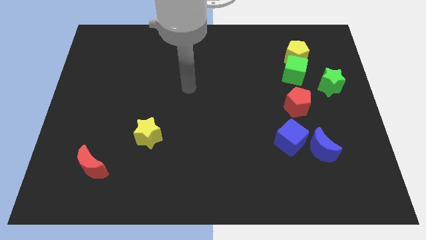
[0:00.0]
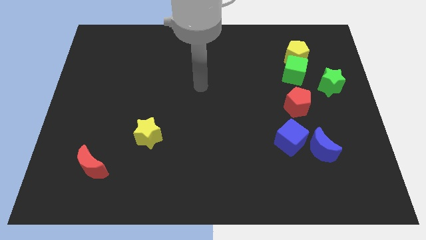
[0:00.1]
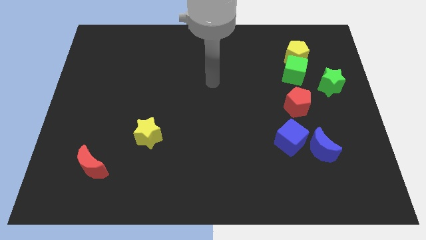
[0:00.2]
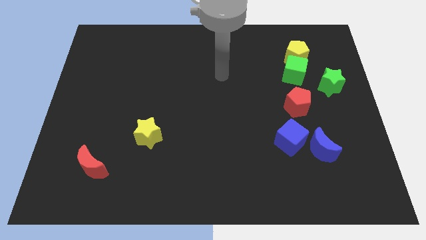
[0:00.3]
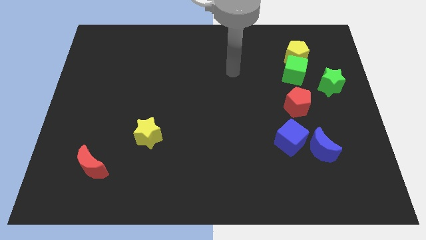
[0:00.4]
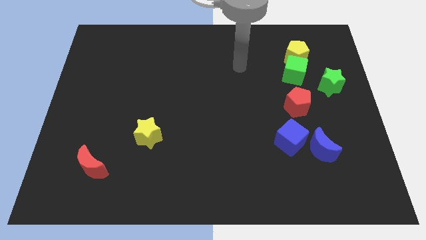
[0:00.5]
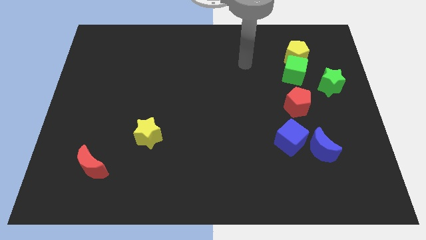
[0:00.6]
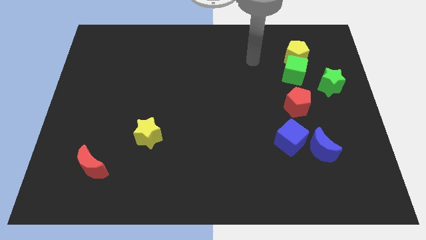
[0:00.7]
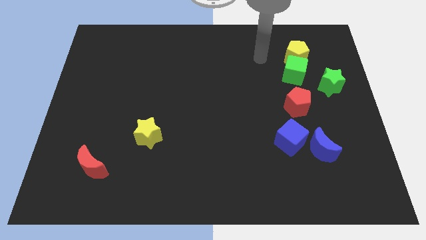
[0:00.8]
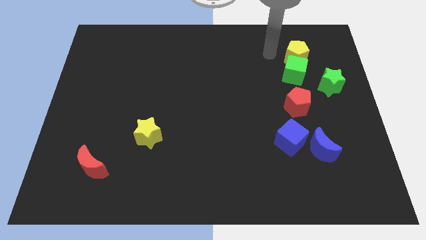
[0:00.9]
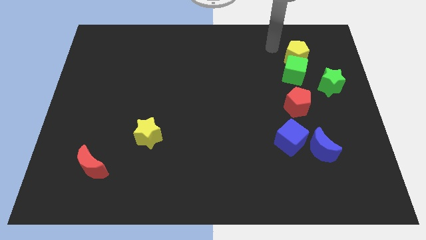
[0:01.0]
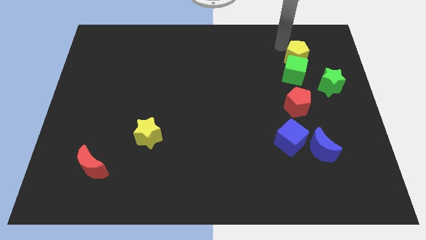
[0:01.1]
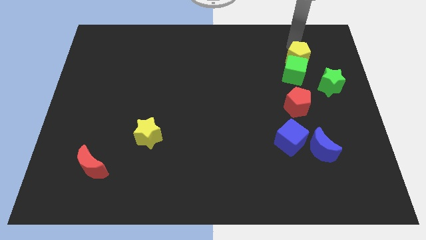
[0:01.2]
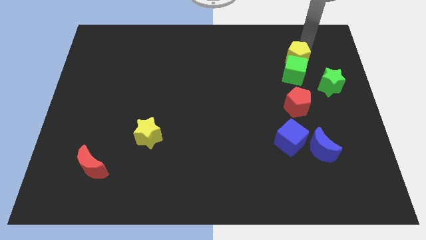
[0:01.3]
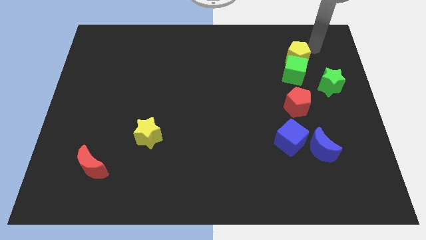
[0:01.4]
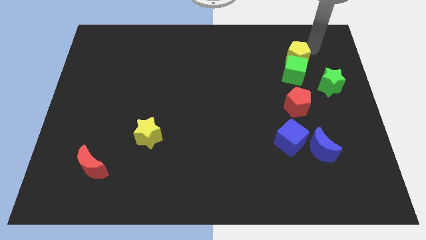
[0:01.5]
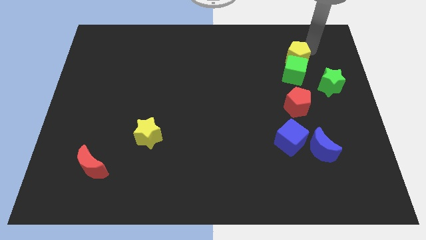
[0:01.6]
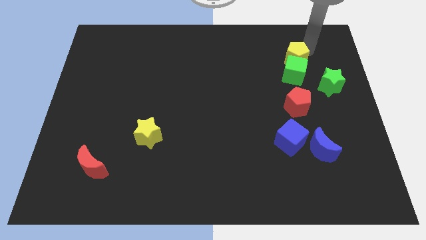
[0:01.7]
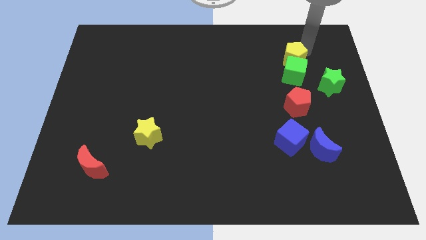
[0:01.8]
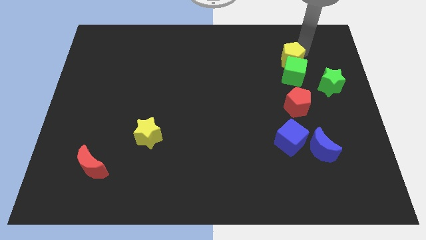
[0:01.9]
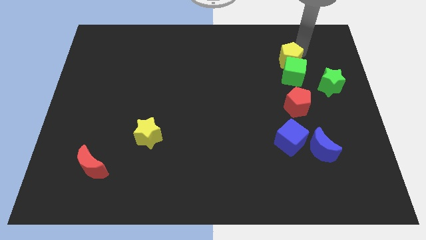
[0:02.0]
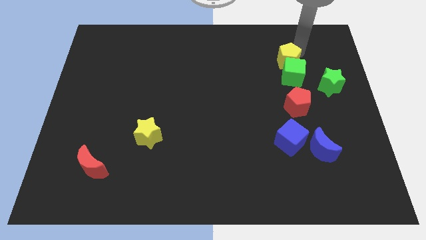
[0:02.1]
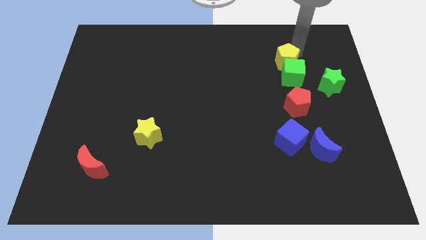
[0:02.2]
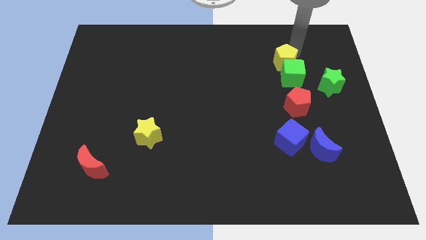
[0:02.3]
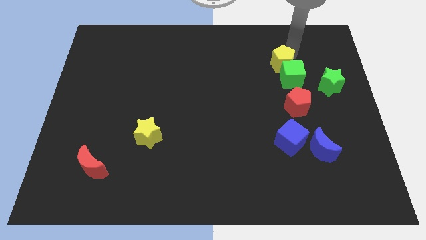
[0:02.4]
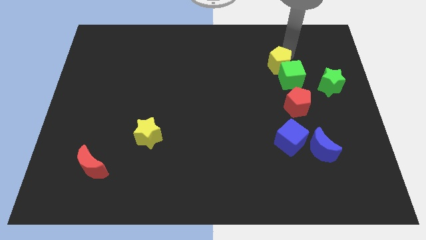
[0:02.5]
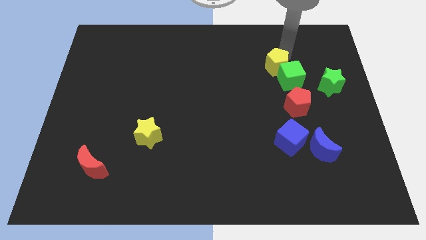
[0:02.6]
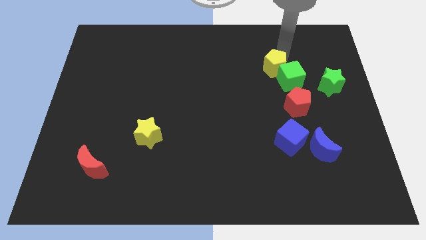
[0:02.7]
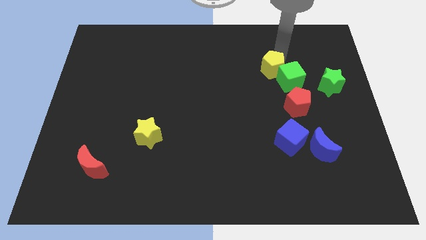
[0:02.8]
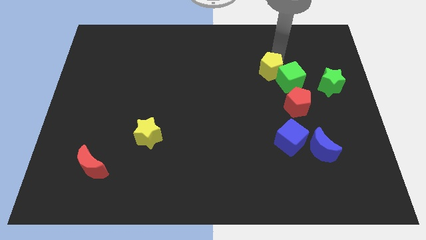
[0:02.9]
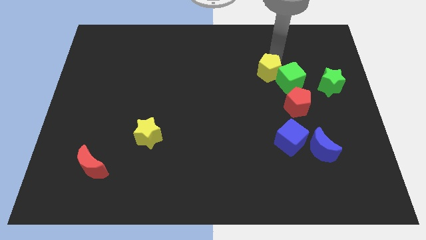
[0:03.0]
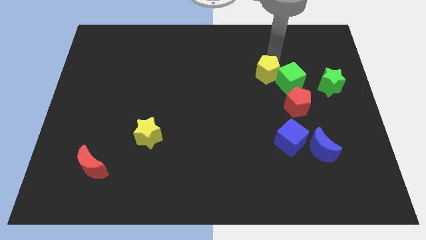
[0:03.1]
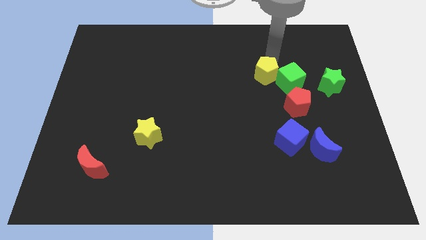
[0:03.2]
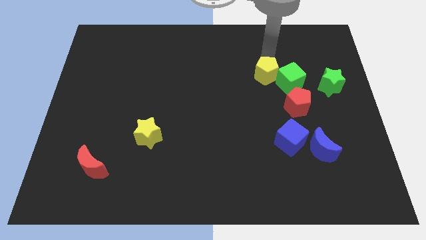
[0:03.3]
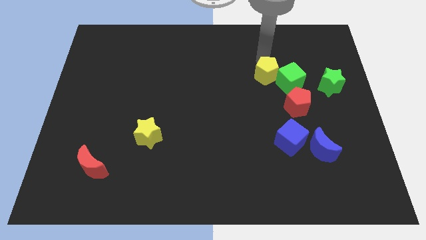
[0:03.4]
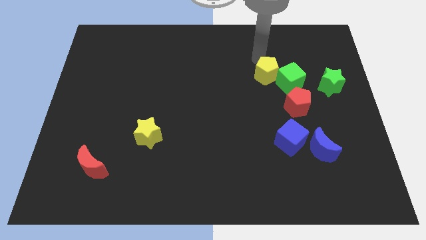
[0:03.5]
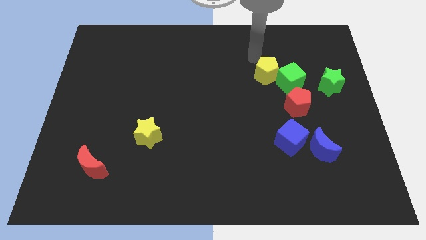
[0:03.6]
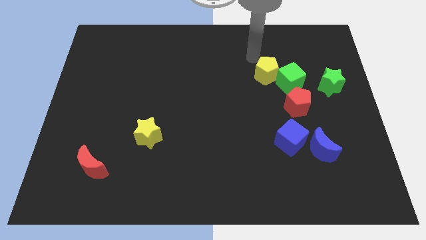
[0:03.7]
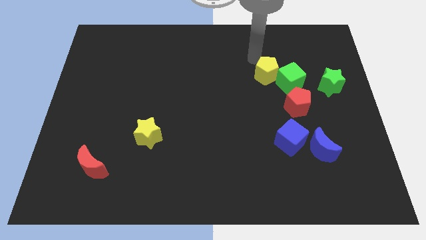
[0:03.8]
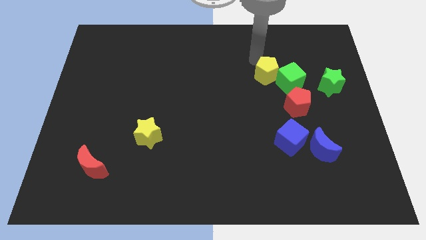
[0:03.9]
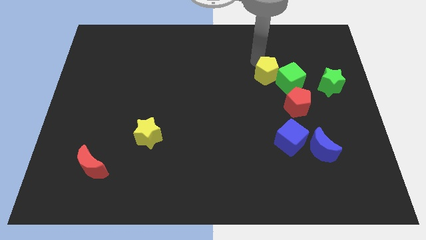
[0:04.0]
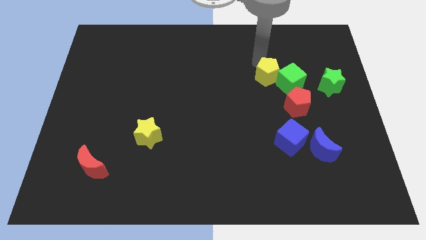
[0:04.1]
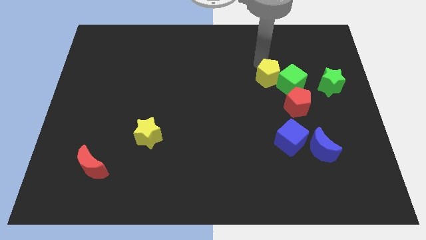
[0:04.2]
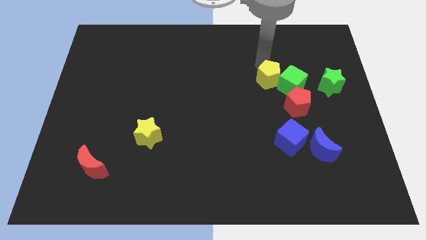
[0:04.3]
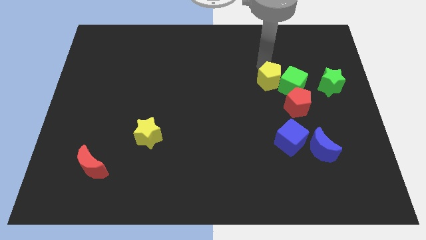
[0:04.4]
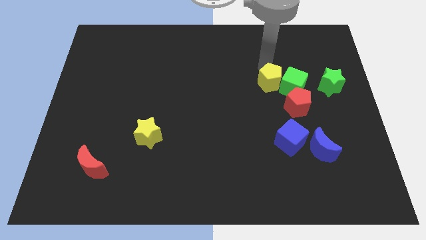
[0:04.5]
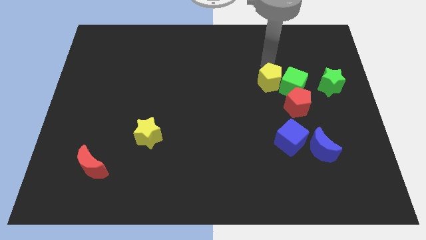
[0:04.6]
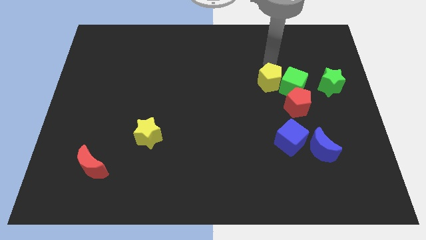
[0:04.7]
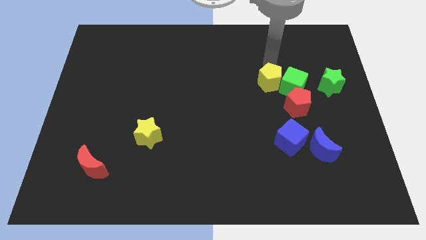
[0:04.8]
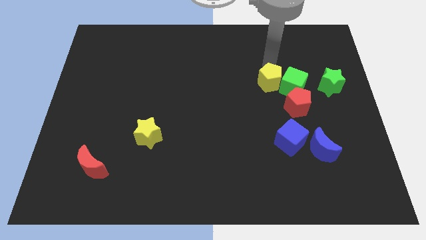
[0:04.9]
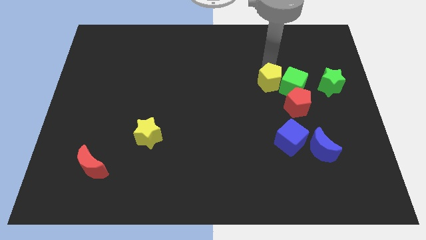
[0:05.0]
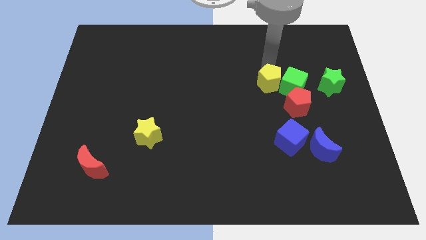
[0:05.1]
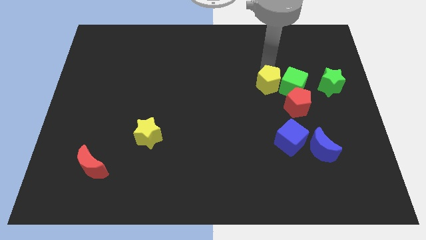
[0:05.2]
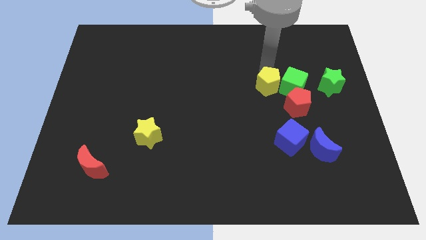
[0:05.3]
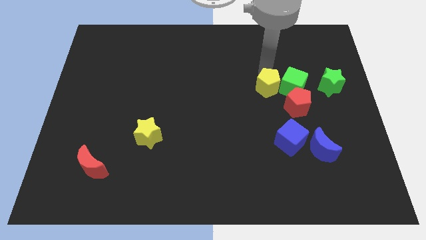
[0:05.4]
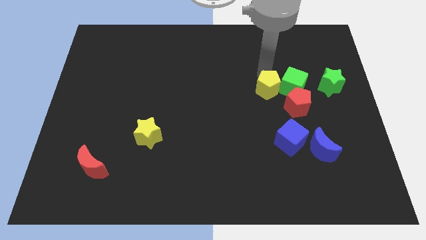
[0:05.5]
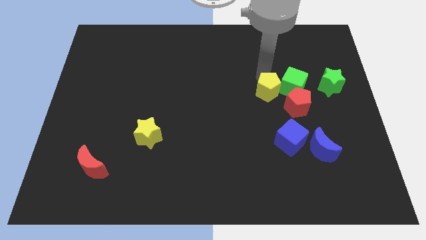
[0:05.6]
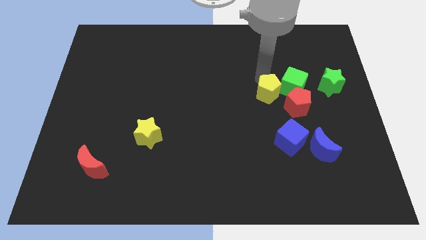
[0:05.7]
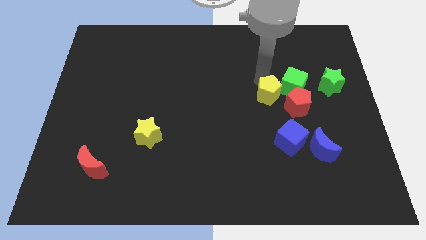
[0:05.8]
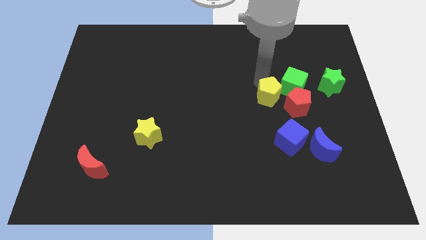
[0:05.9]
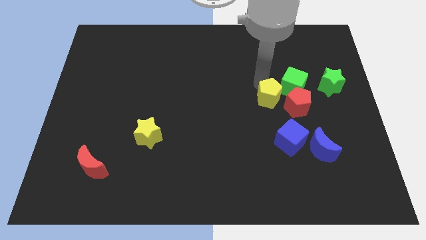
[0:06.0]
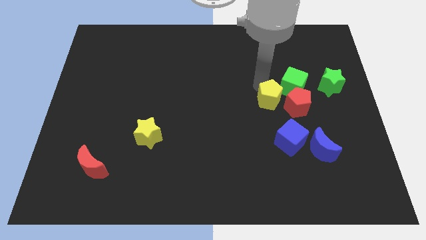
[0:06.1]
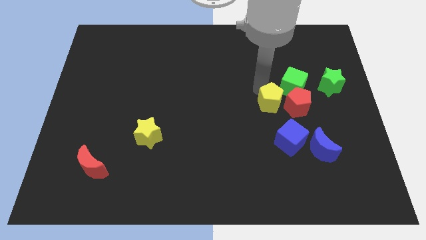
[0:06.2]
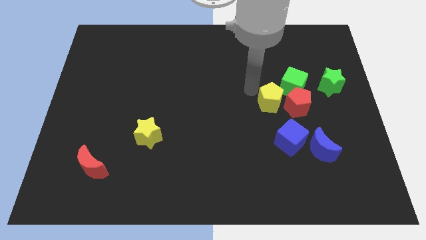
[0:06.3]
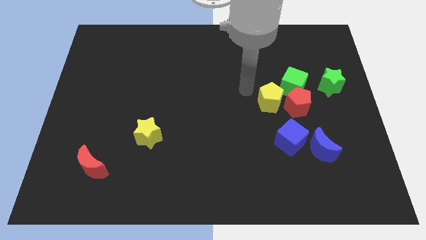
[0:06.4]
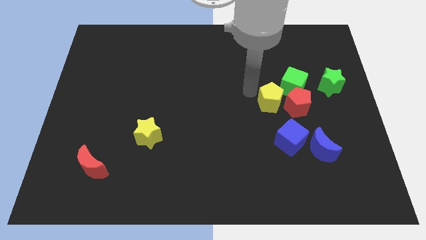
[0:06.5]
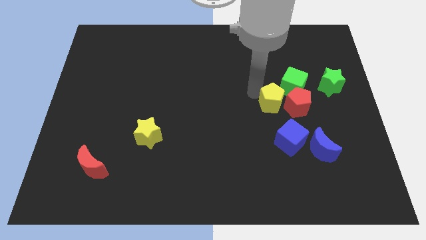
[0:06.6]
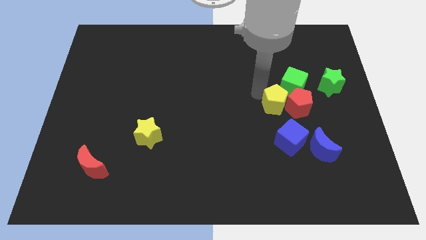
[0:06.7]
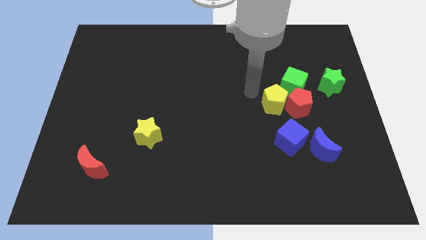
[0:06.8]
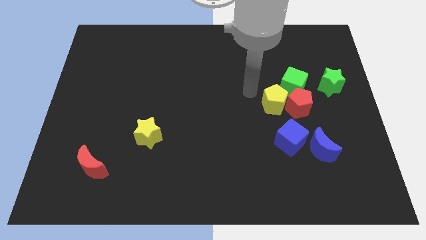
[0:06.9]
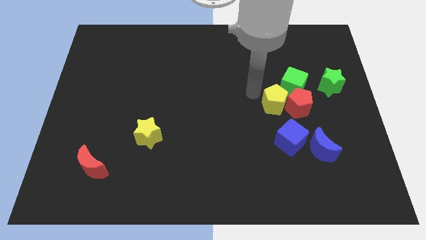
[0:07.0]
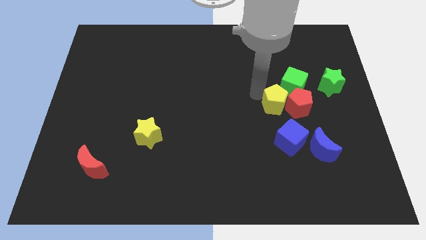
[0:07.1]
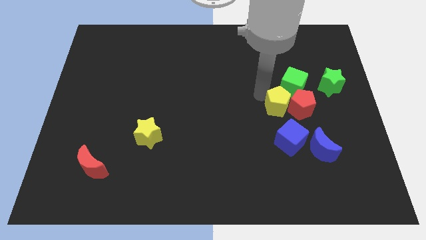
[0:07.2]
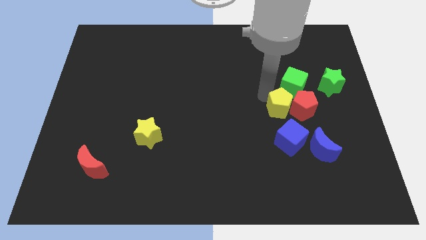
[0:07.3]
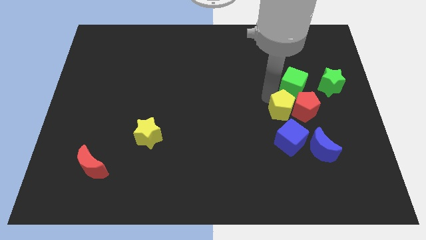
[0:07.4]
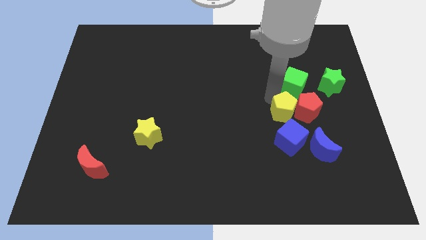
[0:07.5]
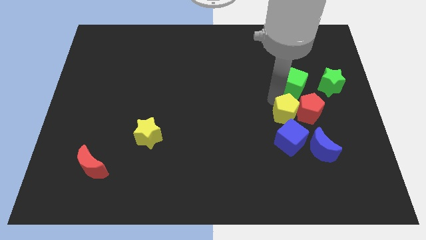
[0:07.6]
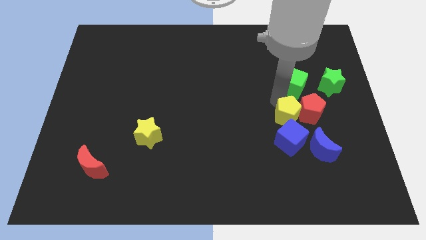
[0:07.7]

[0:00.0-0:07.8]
slide the yellow pentagon to the top right of the blue cube

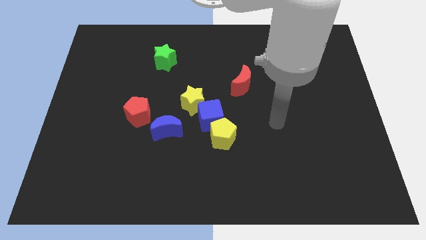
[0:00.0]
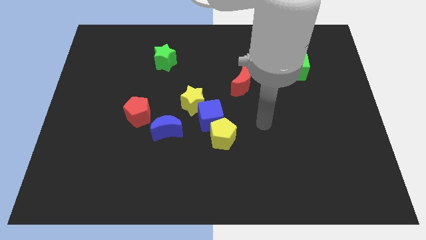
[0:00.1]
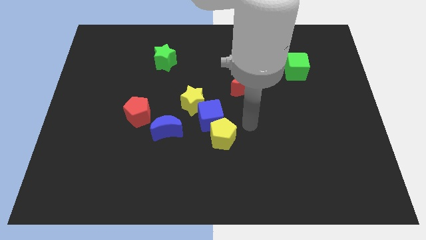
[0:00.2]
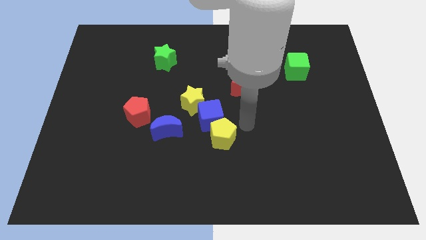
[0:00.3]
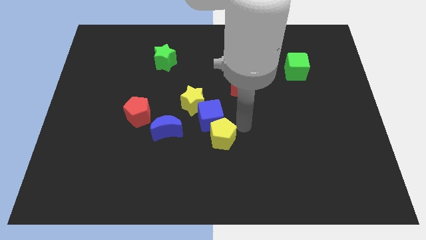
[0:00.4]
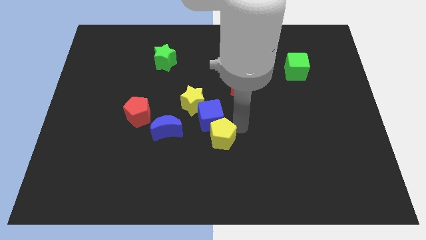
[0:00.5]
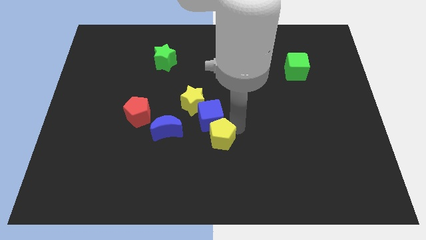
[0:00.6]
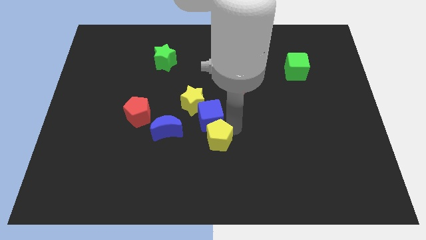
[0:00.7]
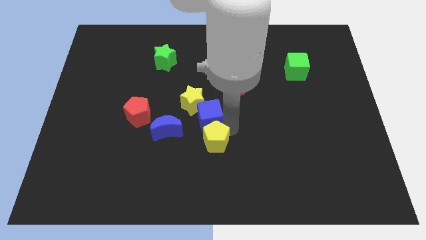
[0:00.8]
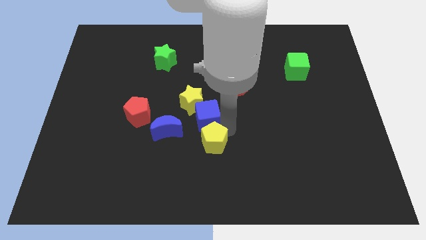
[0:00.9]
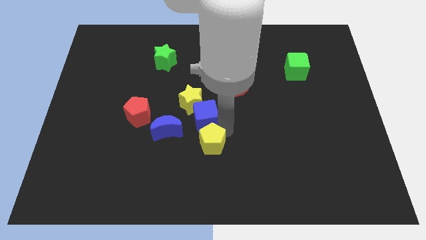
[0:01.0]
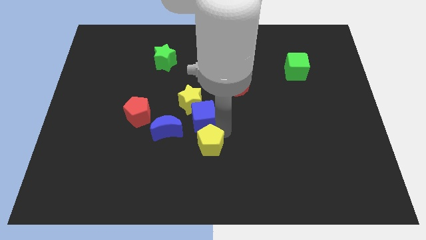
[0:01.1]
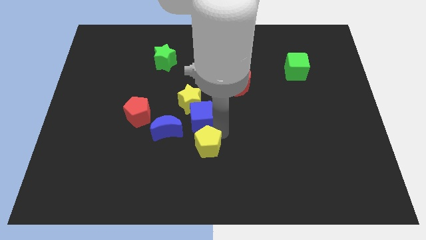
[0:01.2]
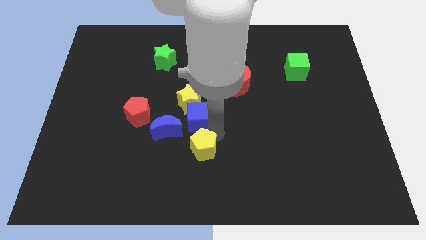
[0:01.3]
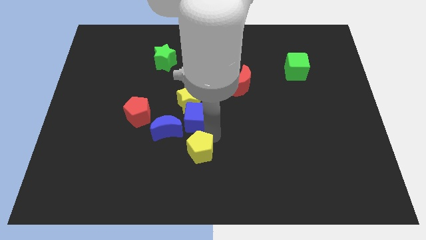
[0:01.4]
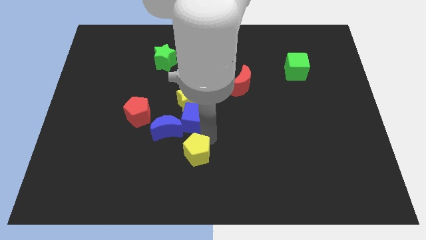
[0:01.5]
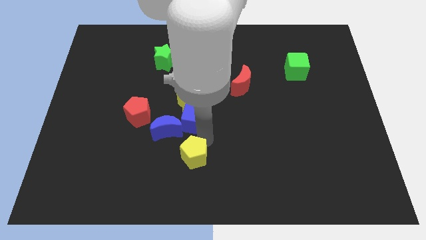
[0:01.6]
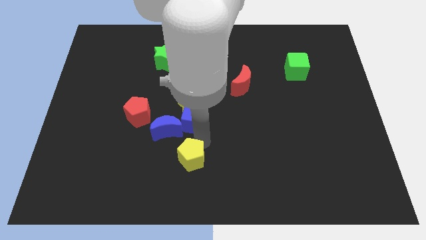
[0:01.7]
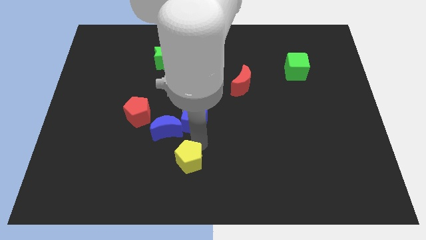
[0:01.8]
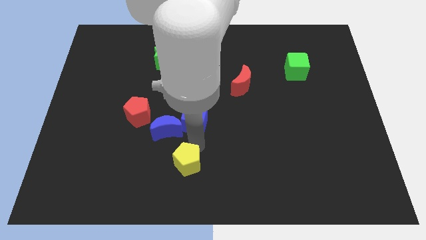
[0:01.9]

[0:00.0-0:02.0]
push the yellow pentagon to the bottom of the blue moon
